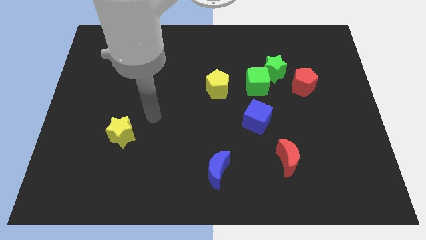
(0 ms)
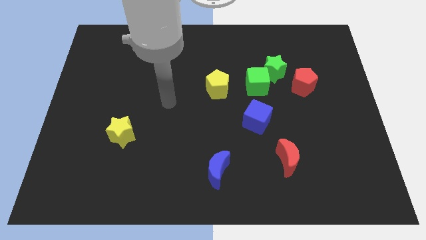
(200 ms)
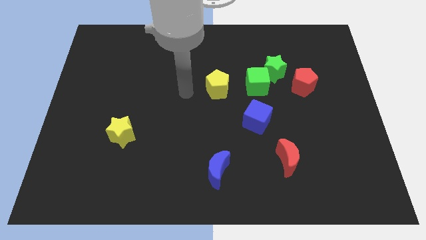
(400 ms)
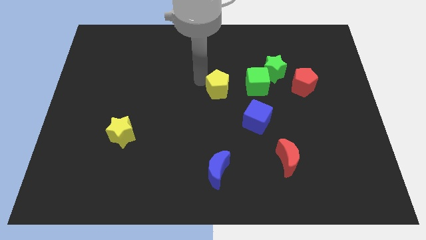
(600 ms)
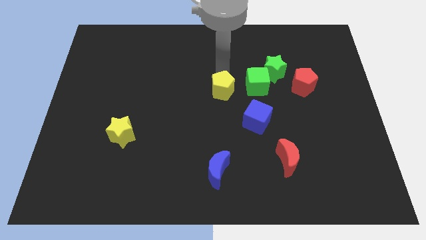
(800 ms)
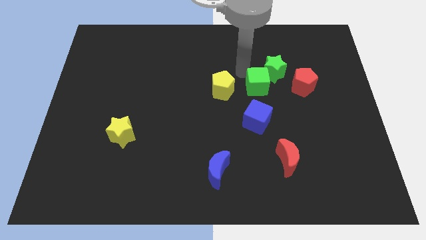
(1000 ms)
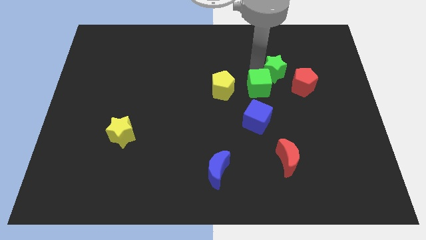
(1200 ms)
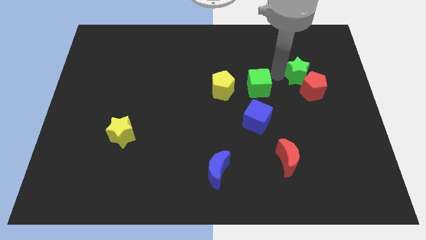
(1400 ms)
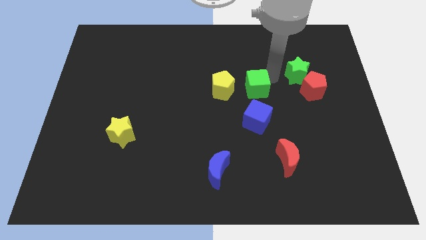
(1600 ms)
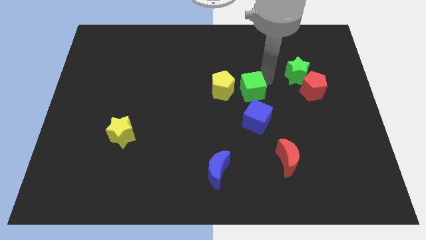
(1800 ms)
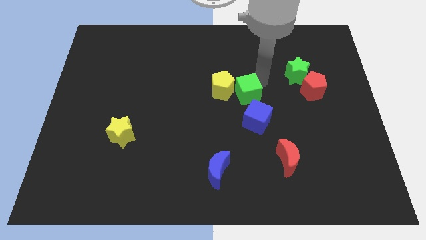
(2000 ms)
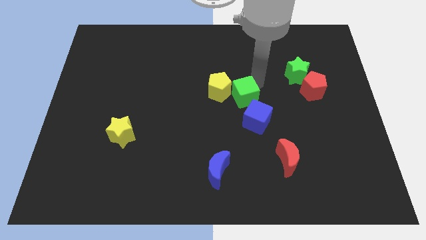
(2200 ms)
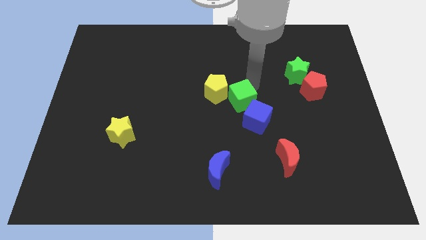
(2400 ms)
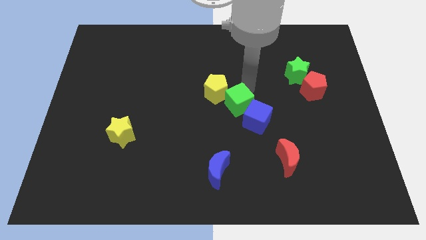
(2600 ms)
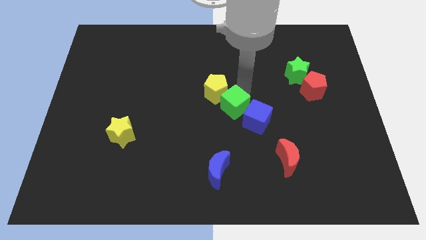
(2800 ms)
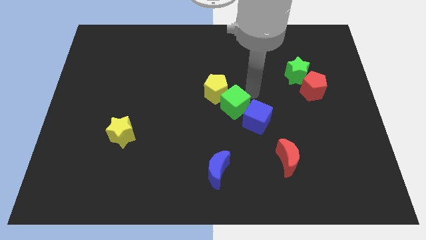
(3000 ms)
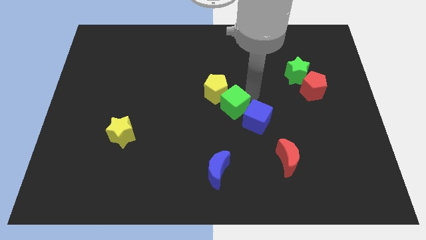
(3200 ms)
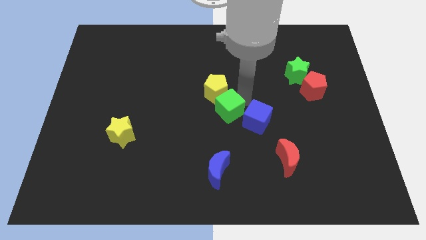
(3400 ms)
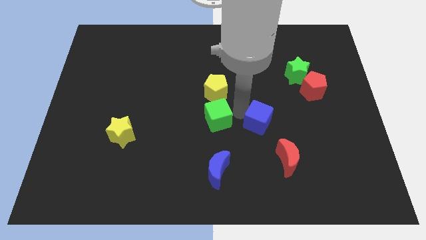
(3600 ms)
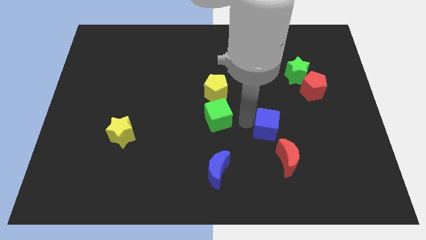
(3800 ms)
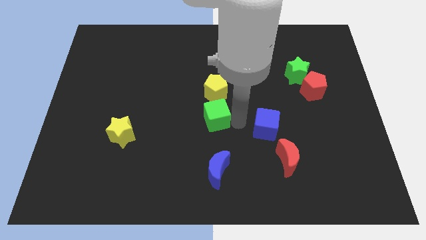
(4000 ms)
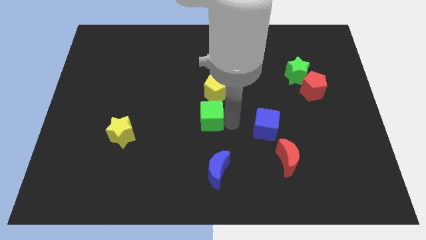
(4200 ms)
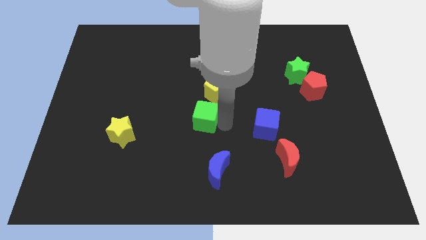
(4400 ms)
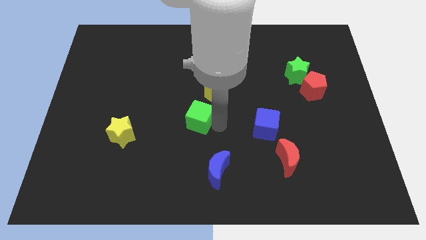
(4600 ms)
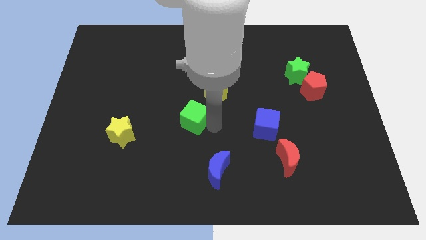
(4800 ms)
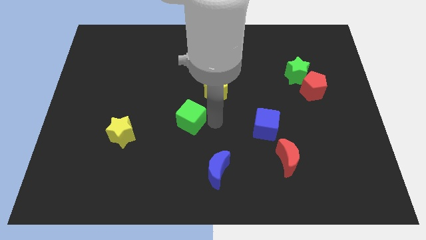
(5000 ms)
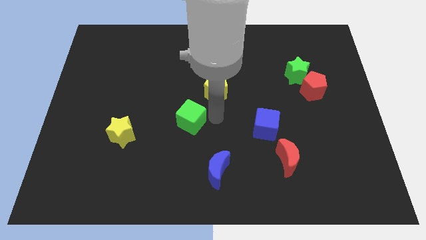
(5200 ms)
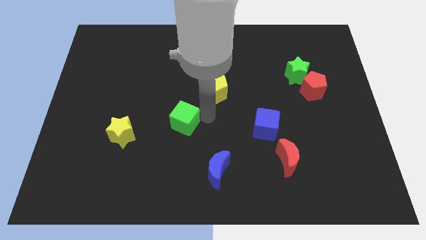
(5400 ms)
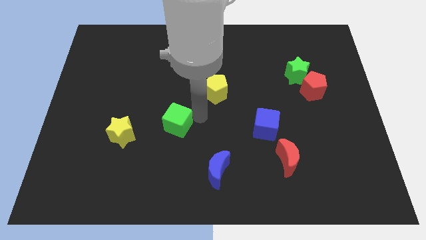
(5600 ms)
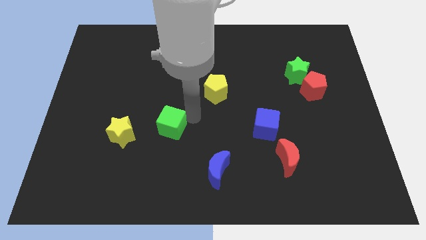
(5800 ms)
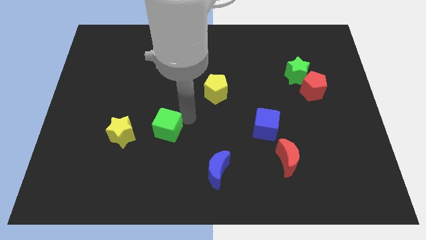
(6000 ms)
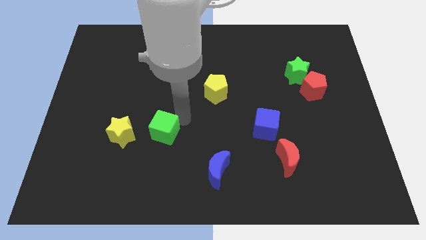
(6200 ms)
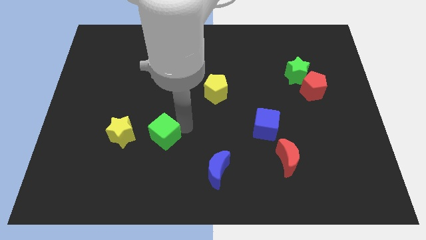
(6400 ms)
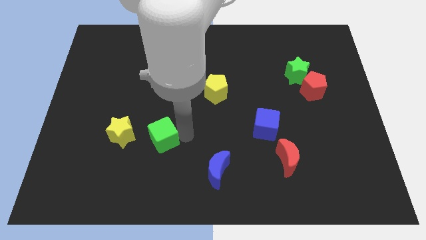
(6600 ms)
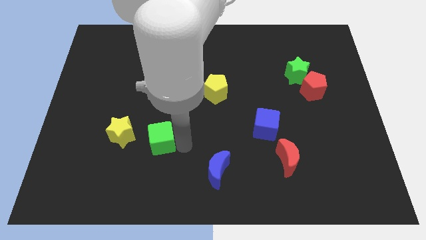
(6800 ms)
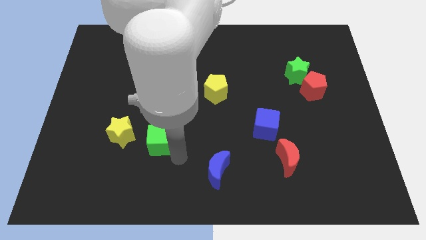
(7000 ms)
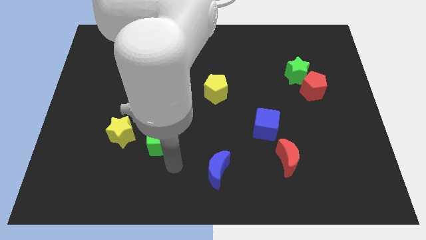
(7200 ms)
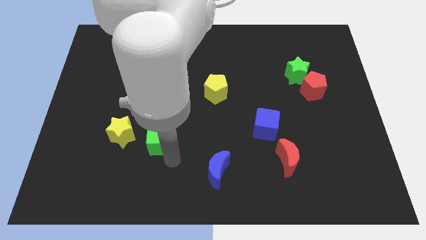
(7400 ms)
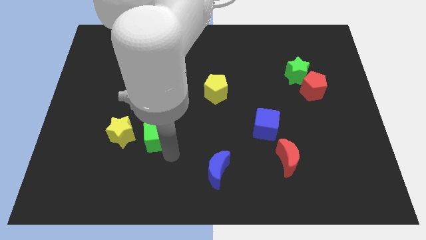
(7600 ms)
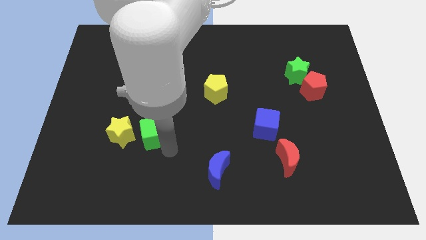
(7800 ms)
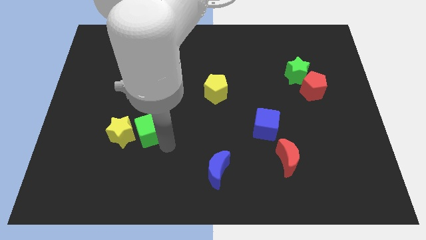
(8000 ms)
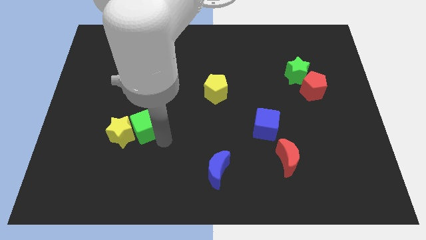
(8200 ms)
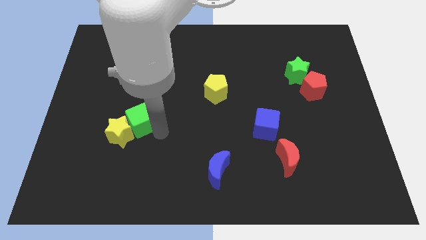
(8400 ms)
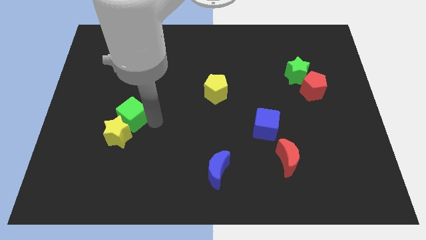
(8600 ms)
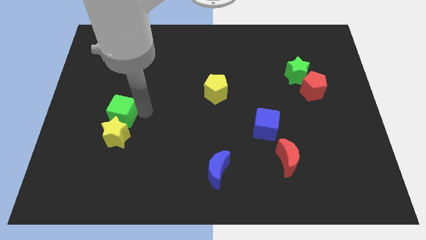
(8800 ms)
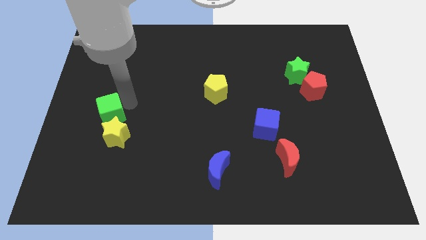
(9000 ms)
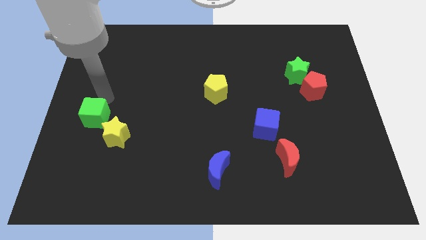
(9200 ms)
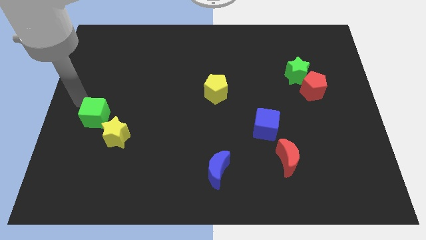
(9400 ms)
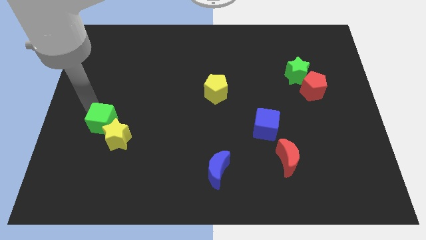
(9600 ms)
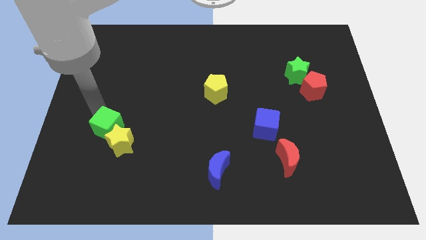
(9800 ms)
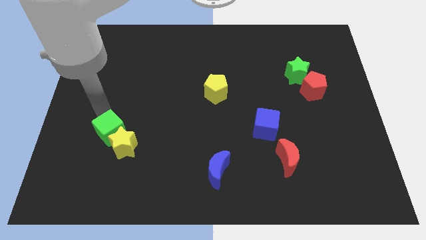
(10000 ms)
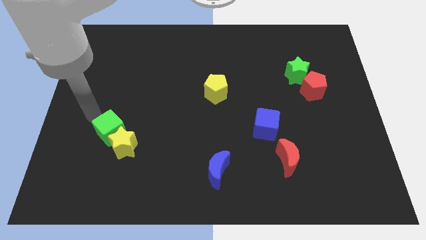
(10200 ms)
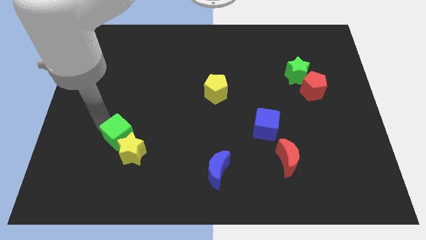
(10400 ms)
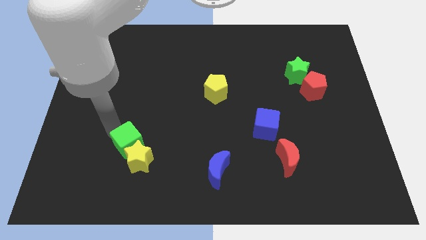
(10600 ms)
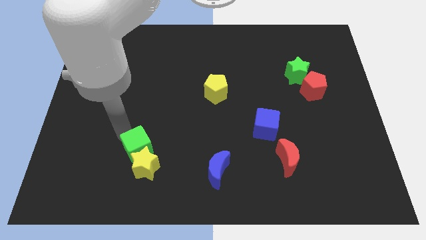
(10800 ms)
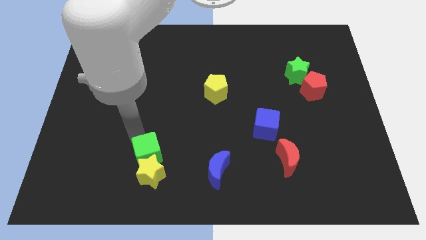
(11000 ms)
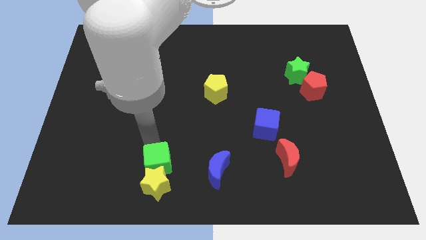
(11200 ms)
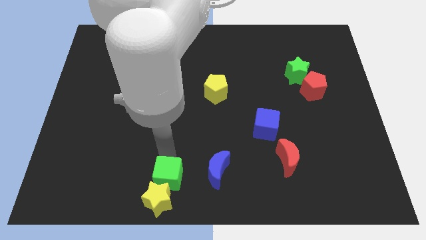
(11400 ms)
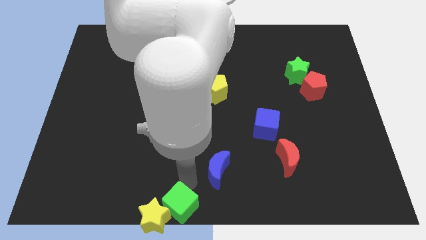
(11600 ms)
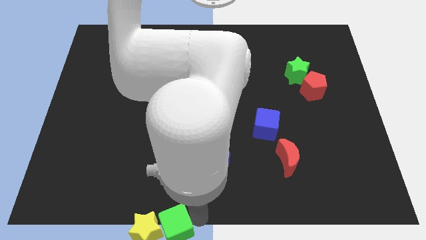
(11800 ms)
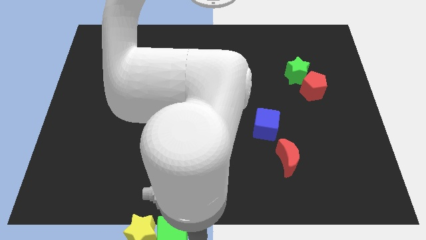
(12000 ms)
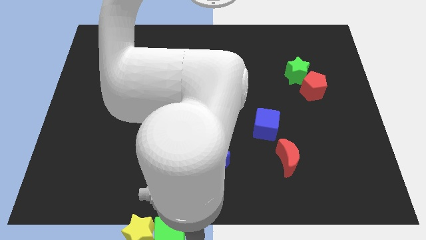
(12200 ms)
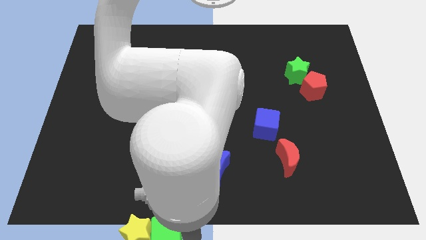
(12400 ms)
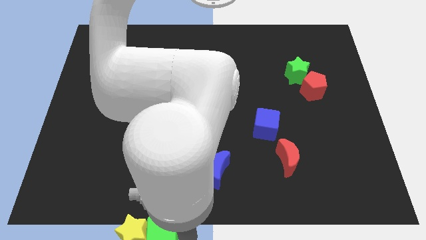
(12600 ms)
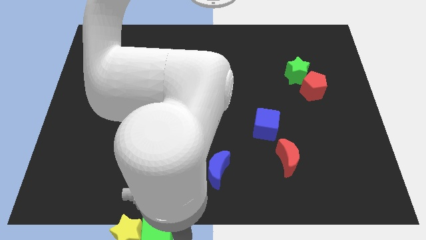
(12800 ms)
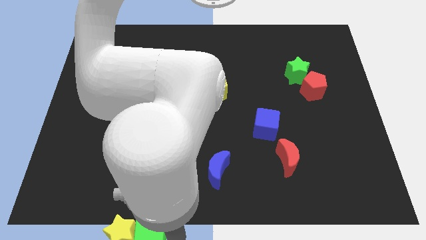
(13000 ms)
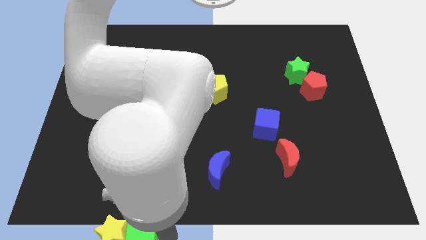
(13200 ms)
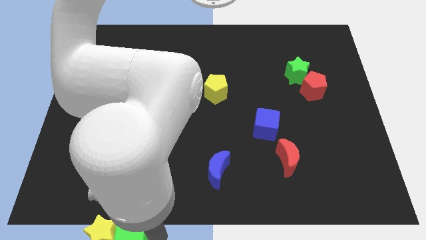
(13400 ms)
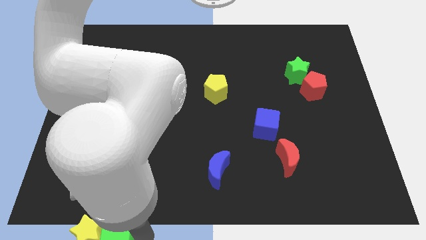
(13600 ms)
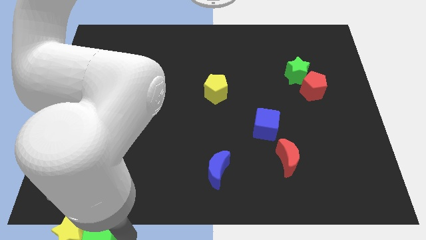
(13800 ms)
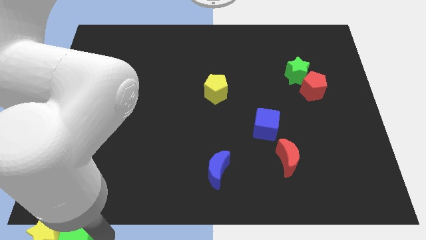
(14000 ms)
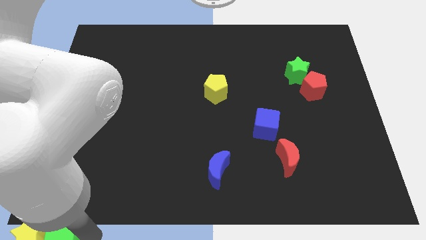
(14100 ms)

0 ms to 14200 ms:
slide the green cube to the bottom left
